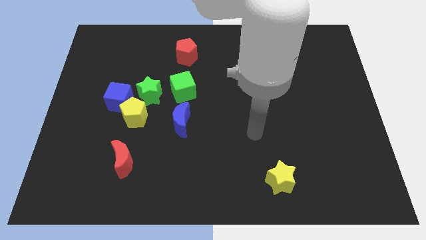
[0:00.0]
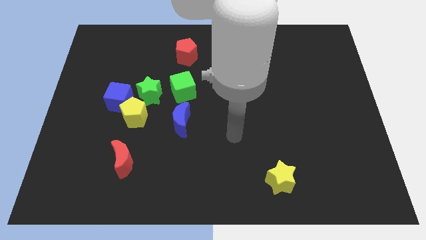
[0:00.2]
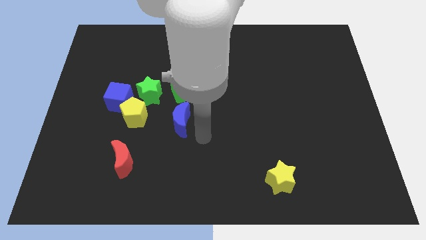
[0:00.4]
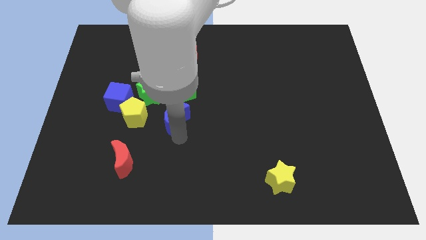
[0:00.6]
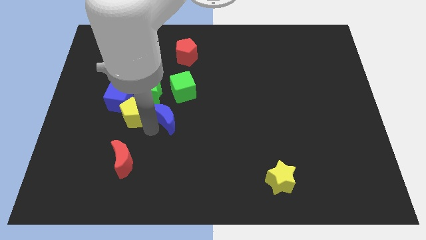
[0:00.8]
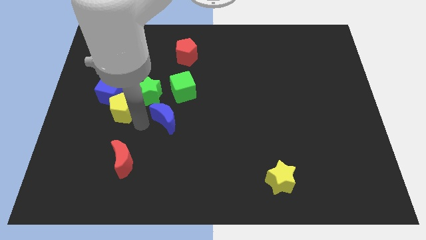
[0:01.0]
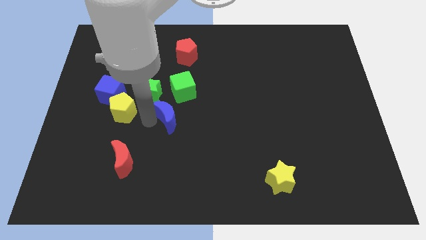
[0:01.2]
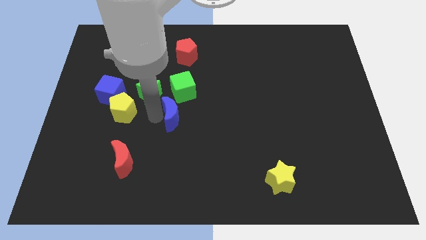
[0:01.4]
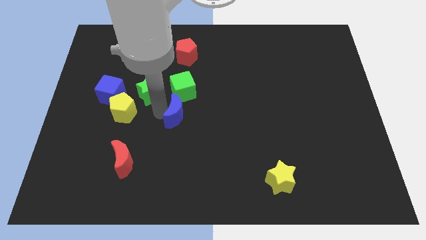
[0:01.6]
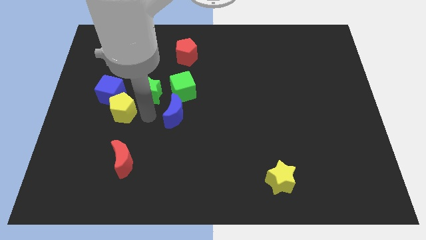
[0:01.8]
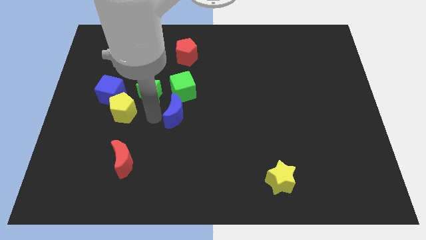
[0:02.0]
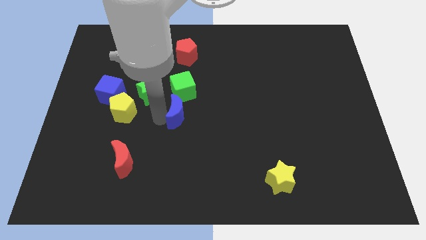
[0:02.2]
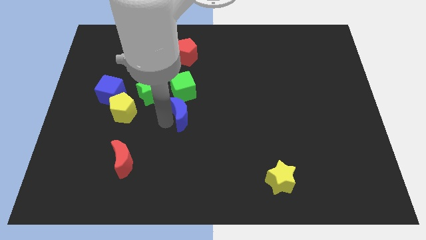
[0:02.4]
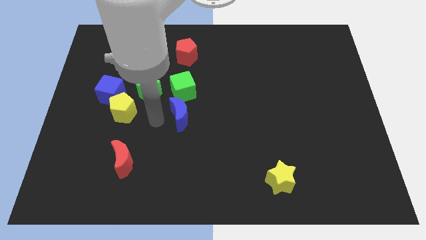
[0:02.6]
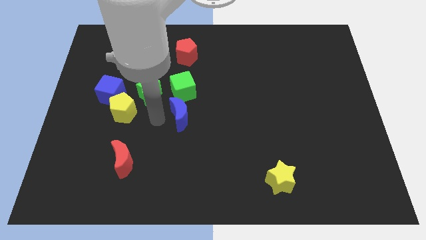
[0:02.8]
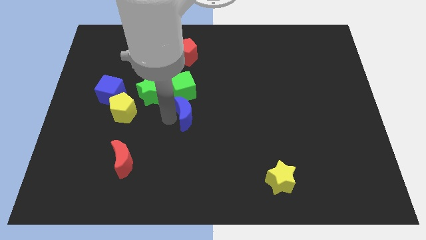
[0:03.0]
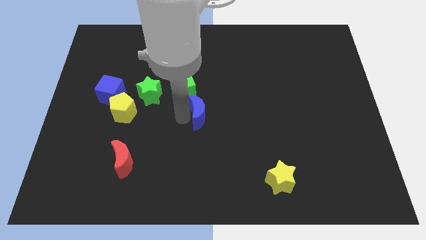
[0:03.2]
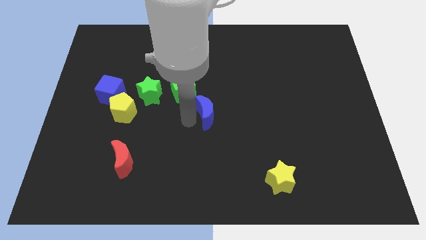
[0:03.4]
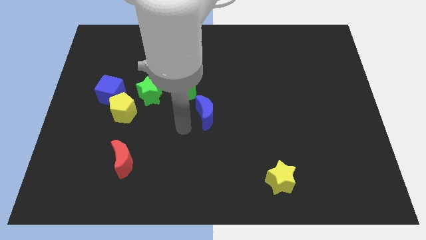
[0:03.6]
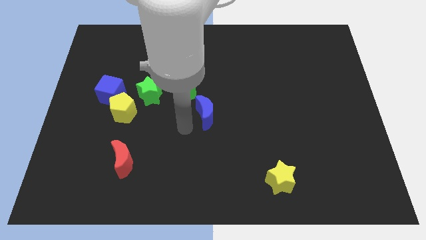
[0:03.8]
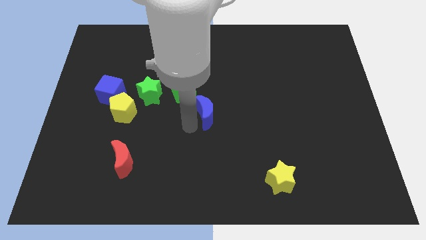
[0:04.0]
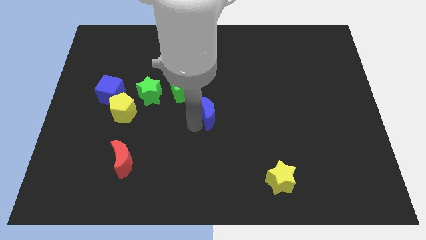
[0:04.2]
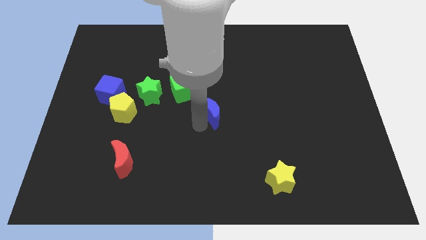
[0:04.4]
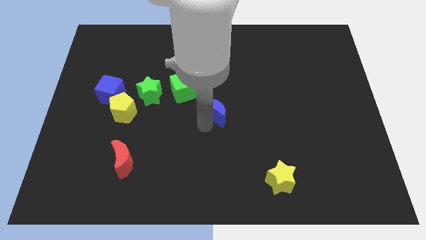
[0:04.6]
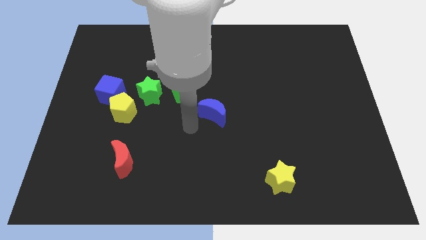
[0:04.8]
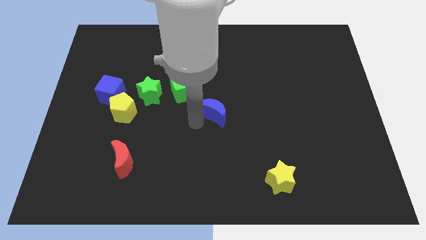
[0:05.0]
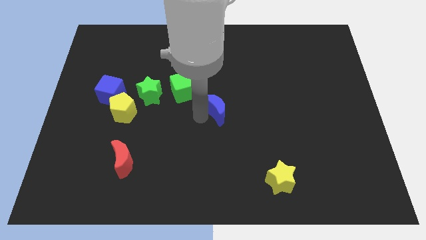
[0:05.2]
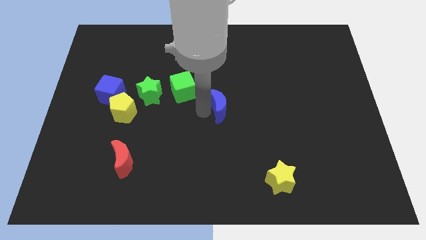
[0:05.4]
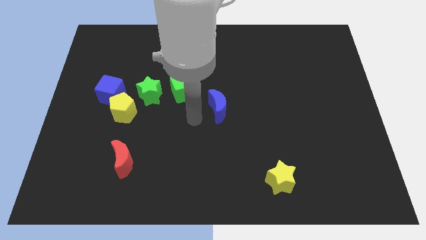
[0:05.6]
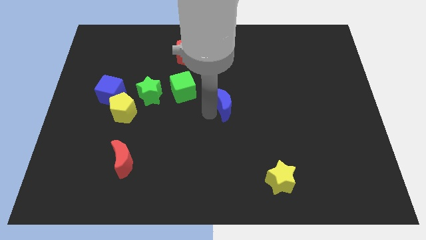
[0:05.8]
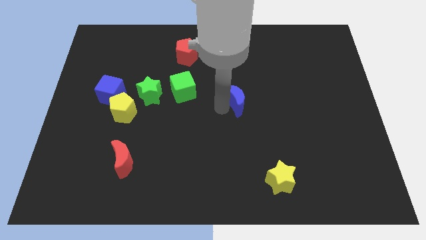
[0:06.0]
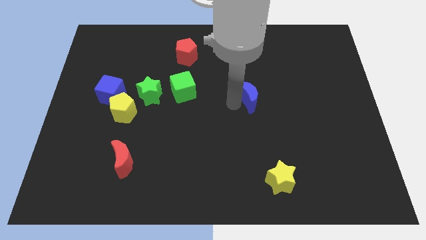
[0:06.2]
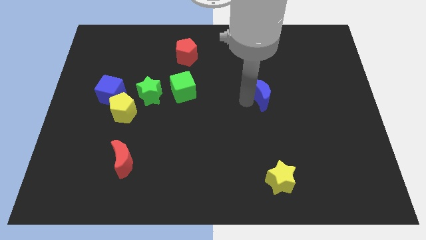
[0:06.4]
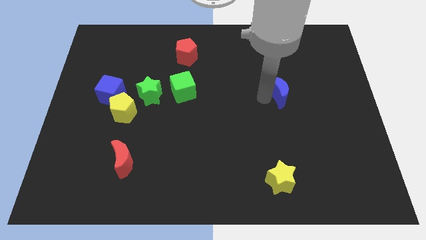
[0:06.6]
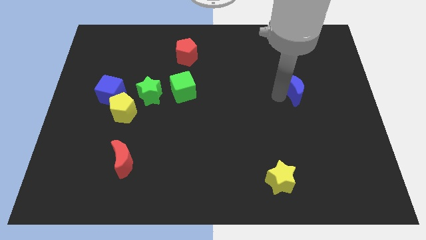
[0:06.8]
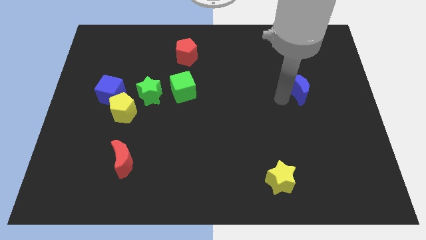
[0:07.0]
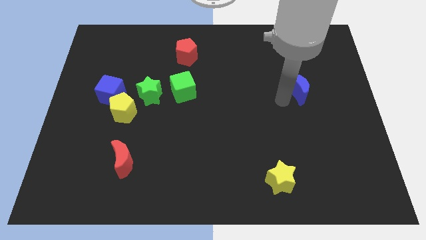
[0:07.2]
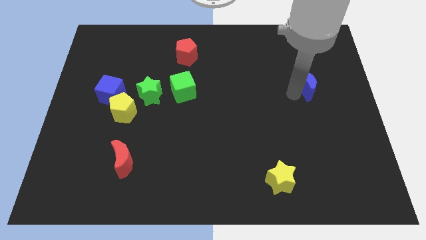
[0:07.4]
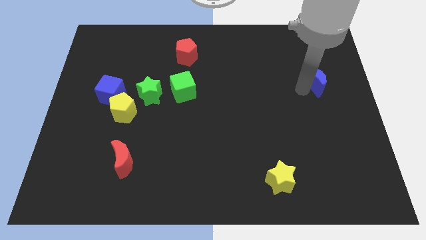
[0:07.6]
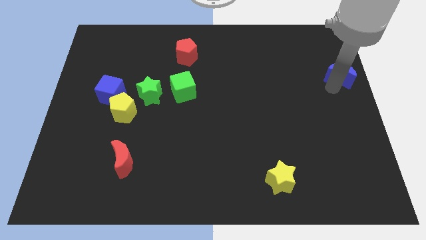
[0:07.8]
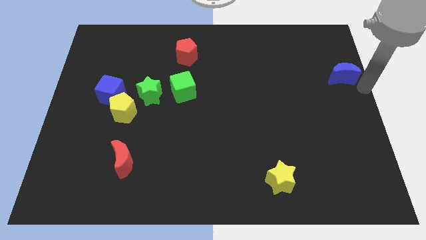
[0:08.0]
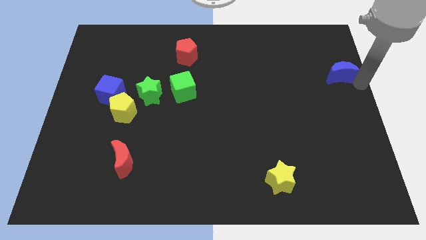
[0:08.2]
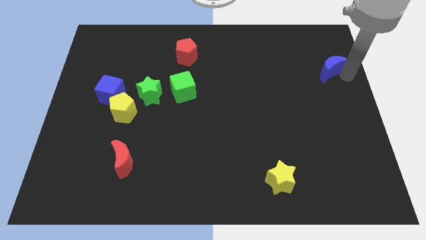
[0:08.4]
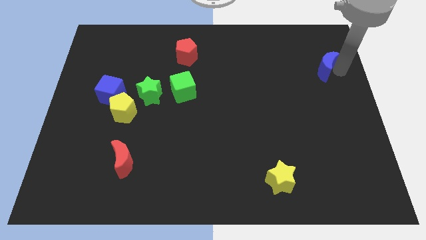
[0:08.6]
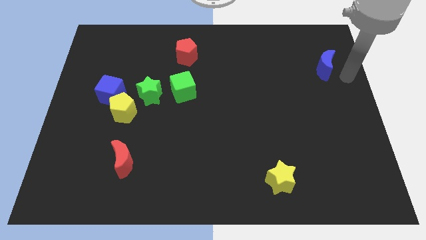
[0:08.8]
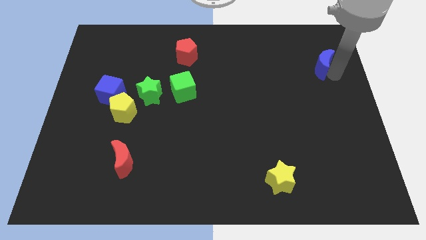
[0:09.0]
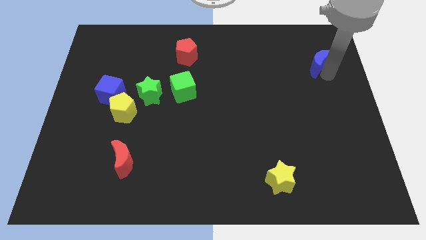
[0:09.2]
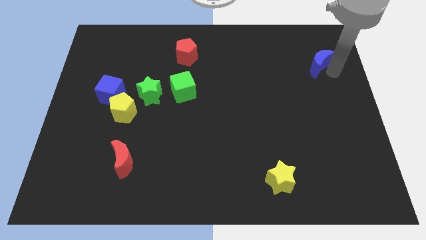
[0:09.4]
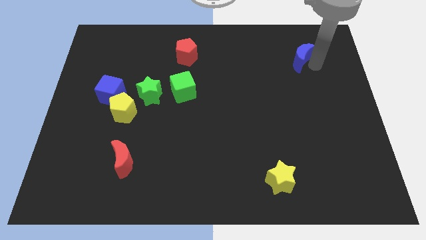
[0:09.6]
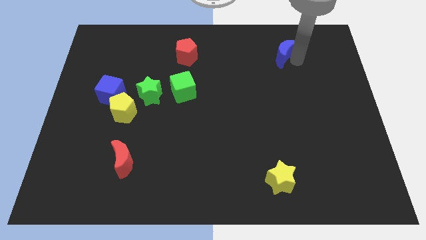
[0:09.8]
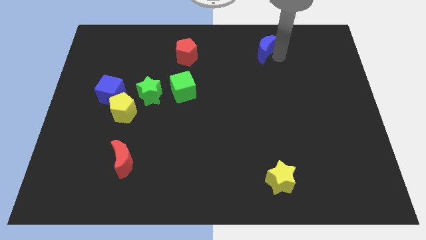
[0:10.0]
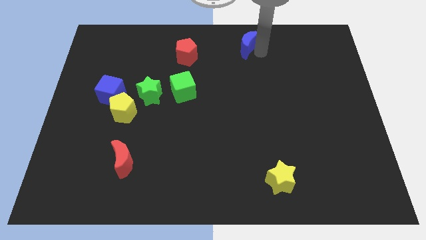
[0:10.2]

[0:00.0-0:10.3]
move the blue moon to the towards your base

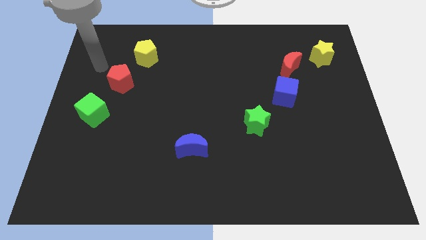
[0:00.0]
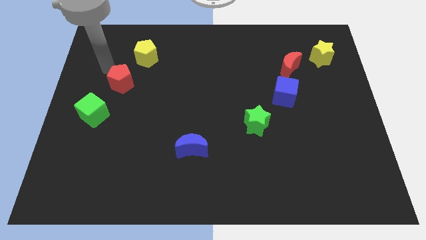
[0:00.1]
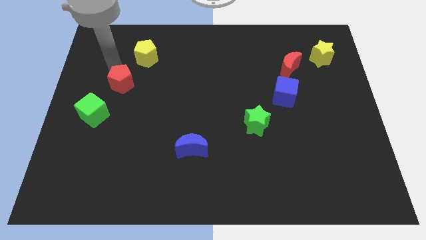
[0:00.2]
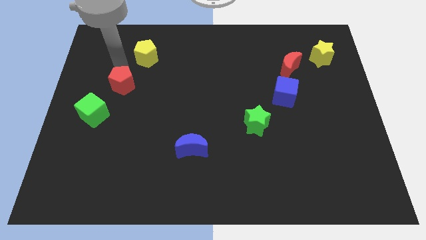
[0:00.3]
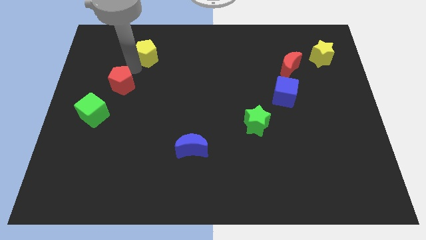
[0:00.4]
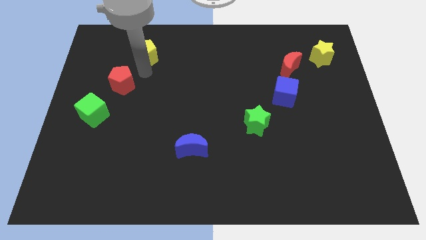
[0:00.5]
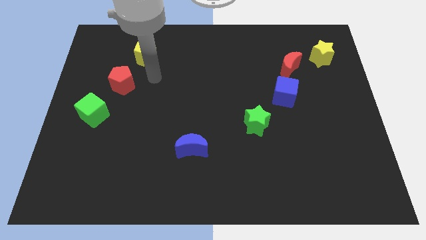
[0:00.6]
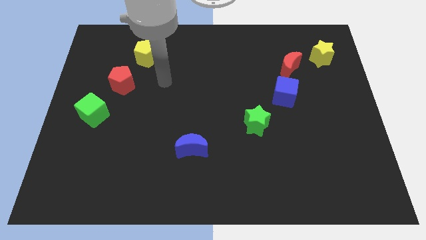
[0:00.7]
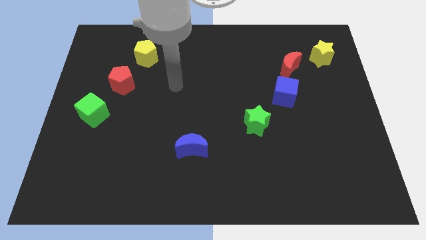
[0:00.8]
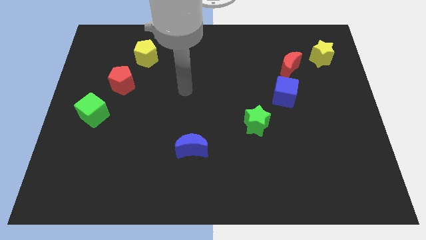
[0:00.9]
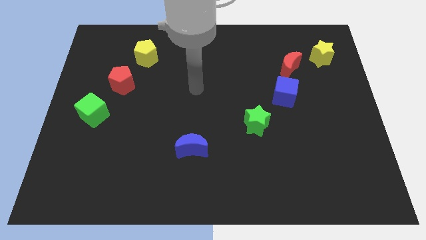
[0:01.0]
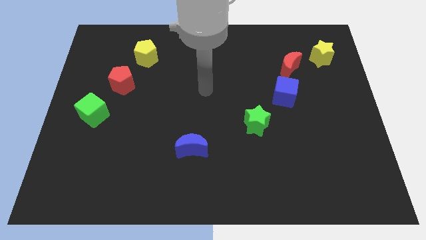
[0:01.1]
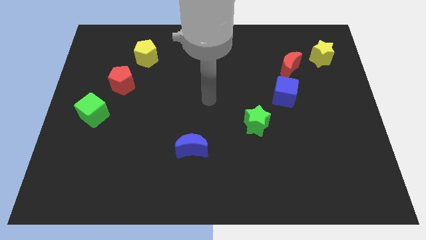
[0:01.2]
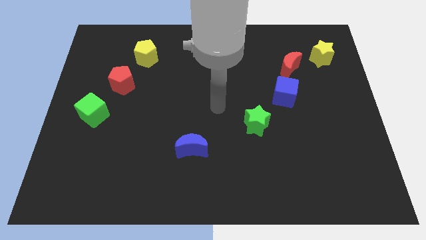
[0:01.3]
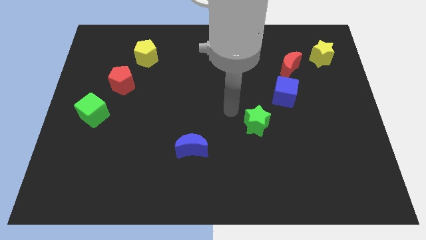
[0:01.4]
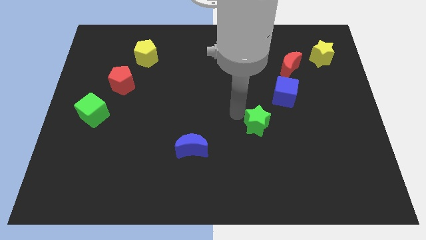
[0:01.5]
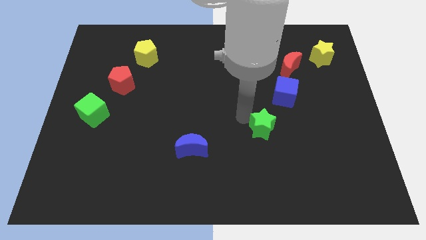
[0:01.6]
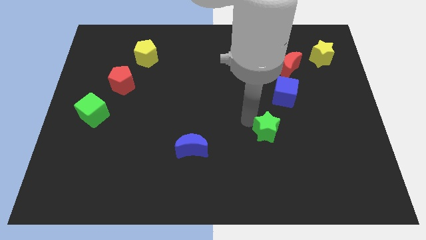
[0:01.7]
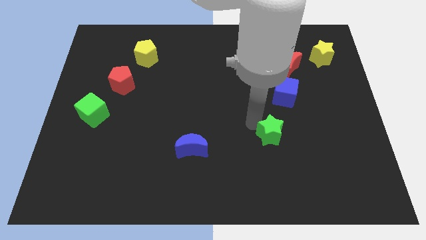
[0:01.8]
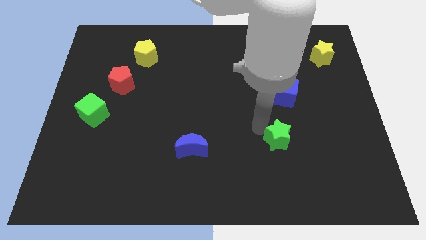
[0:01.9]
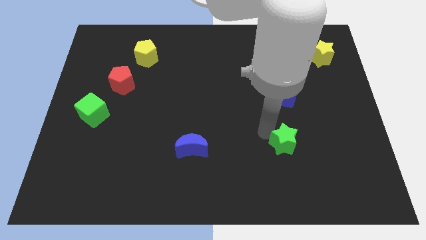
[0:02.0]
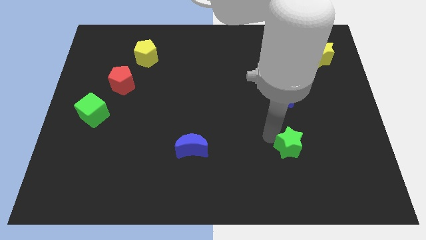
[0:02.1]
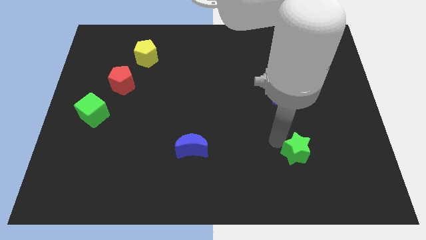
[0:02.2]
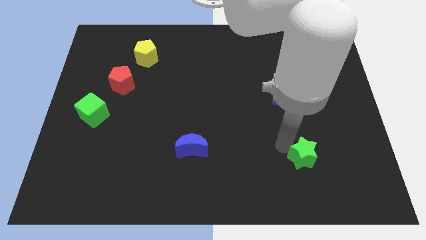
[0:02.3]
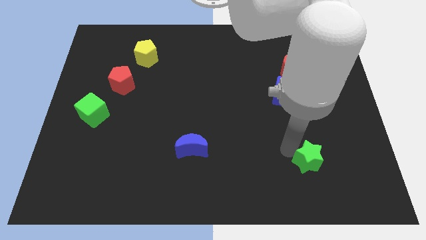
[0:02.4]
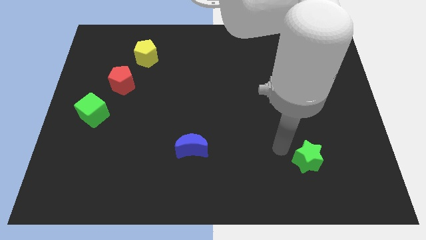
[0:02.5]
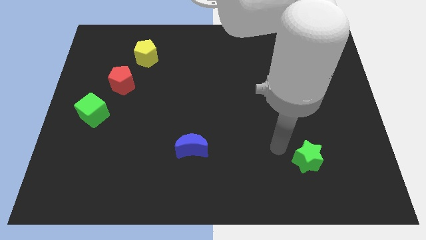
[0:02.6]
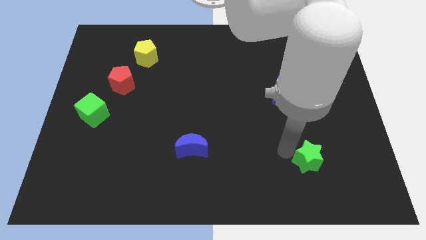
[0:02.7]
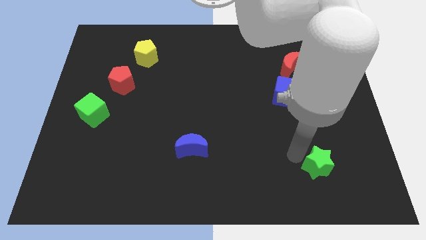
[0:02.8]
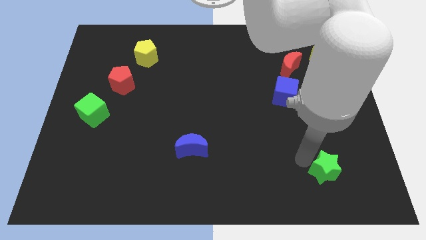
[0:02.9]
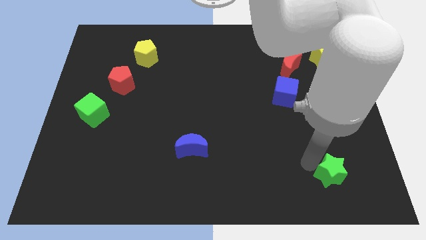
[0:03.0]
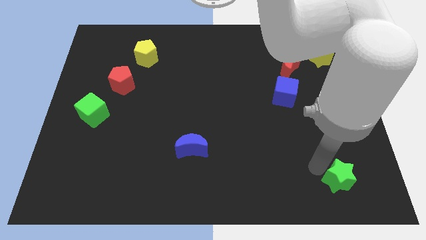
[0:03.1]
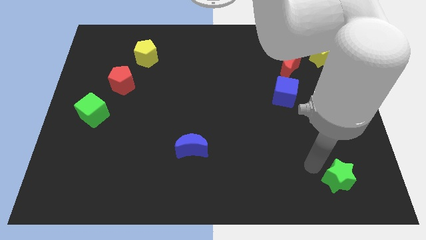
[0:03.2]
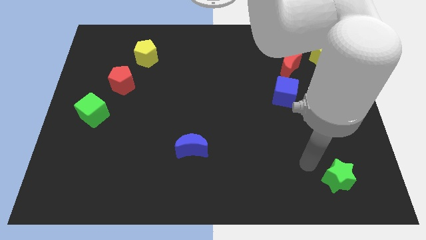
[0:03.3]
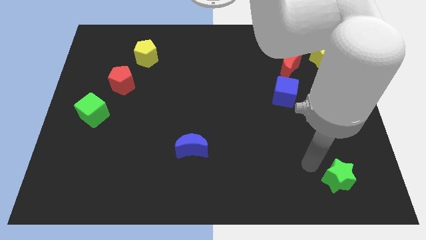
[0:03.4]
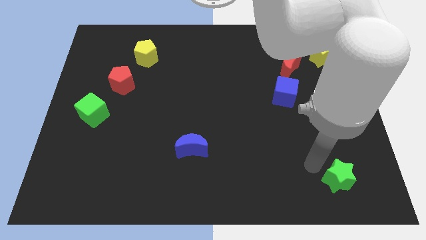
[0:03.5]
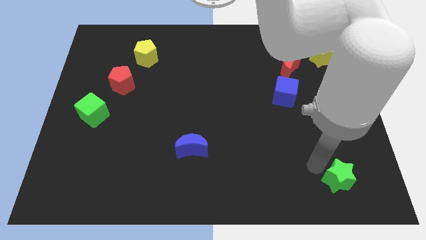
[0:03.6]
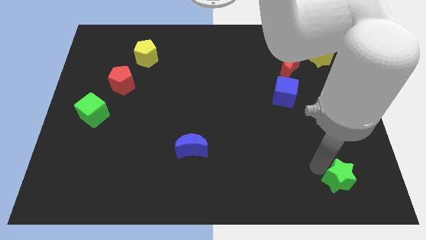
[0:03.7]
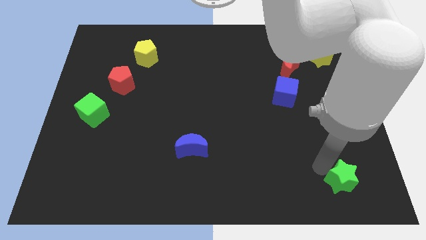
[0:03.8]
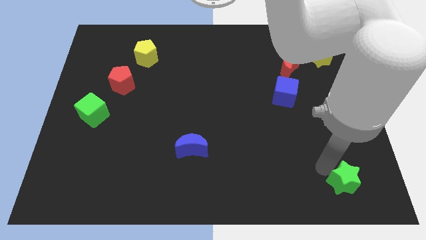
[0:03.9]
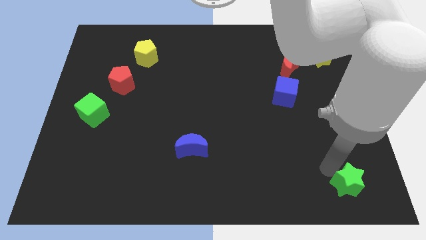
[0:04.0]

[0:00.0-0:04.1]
slide the green star to the bottom right
